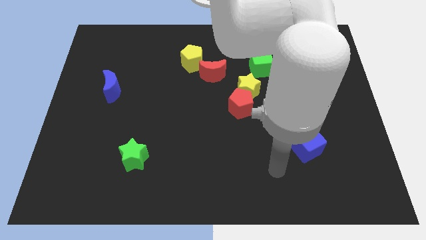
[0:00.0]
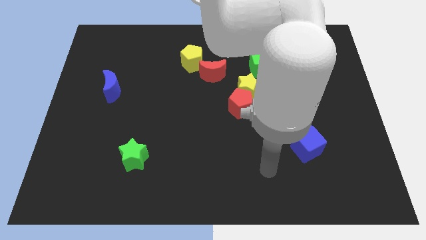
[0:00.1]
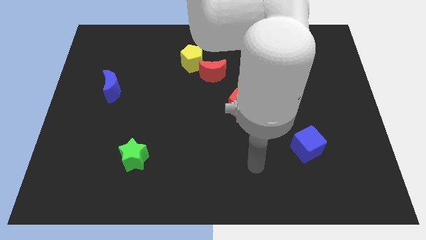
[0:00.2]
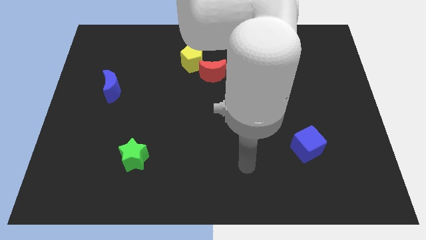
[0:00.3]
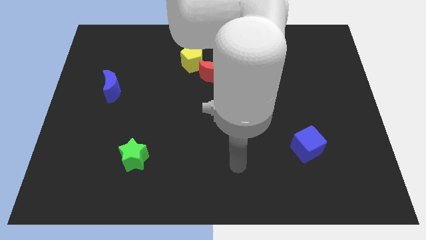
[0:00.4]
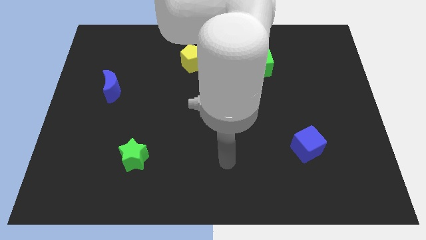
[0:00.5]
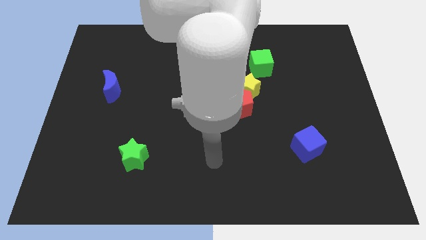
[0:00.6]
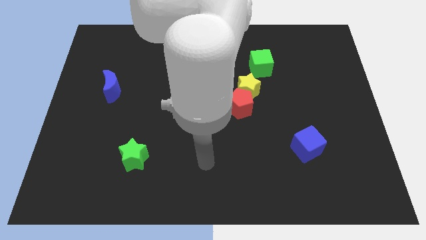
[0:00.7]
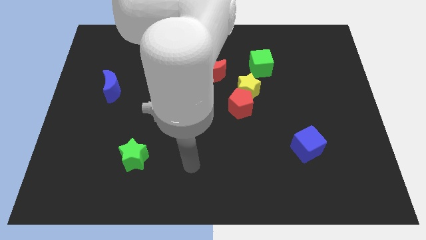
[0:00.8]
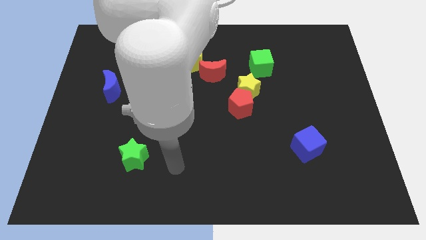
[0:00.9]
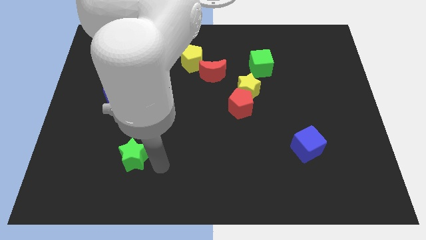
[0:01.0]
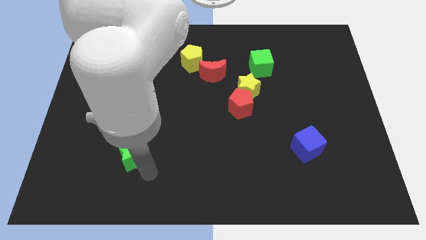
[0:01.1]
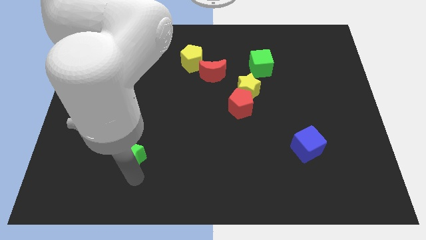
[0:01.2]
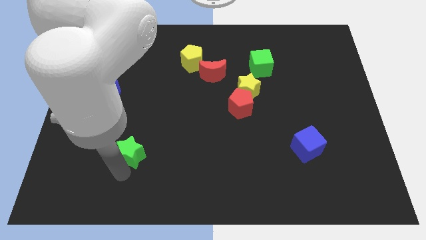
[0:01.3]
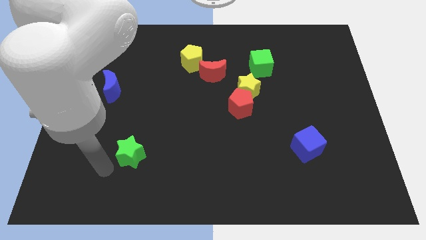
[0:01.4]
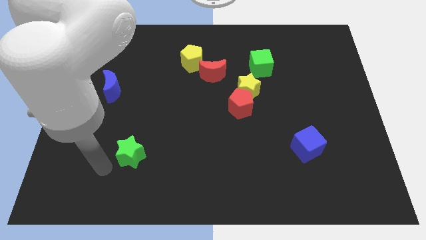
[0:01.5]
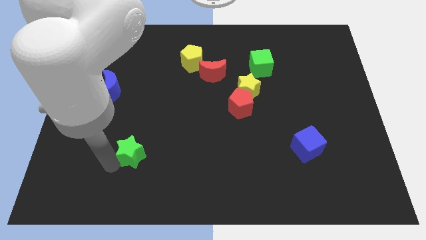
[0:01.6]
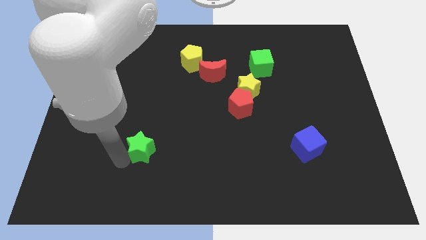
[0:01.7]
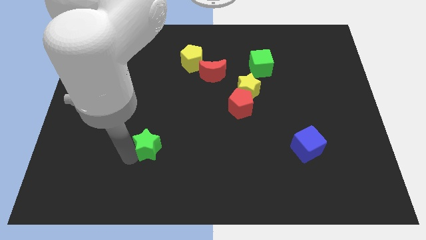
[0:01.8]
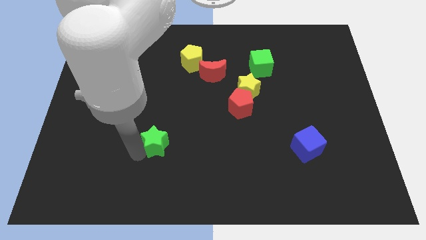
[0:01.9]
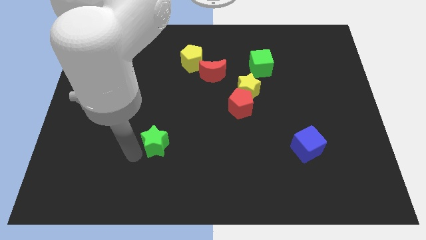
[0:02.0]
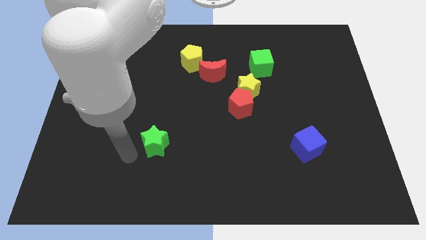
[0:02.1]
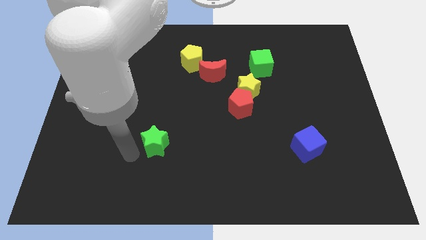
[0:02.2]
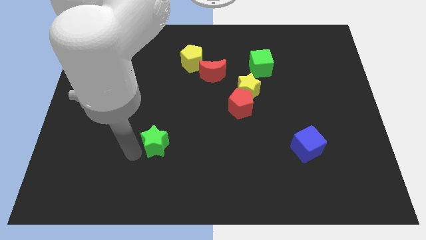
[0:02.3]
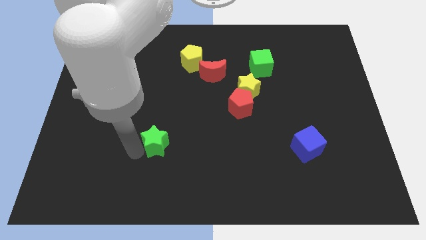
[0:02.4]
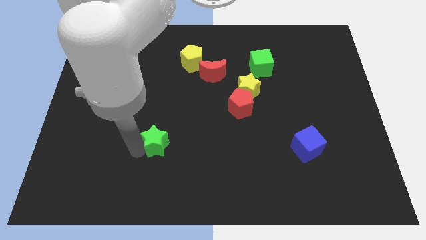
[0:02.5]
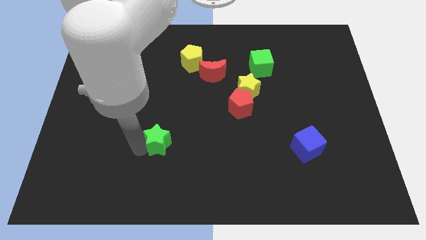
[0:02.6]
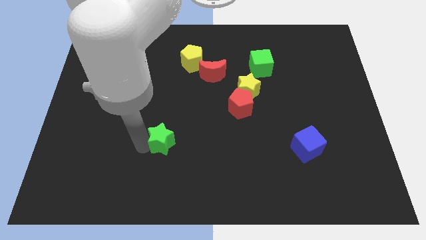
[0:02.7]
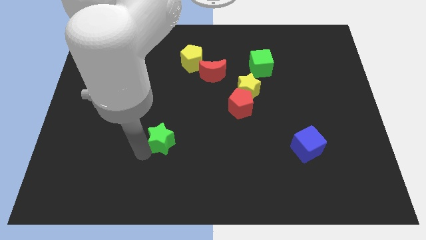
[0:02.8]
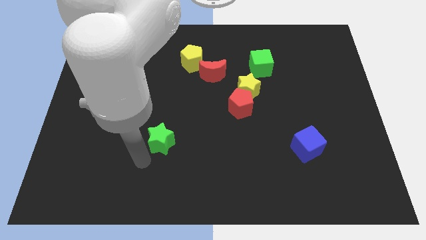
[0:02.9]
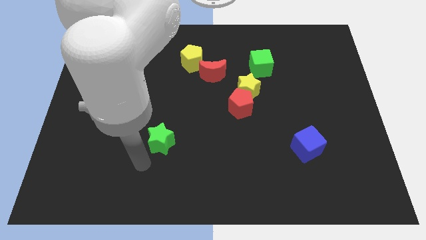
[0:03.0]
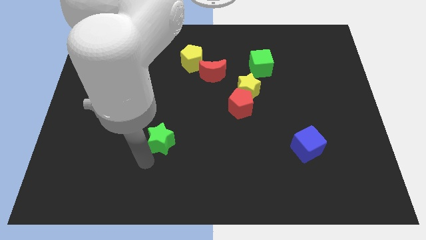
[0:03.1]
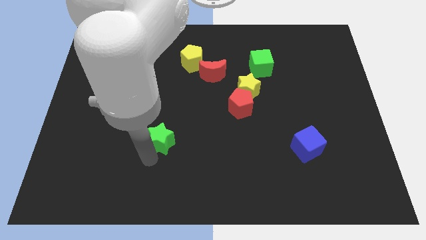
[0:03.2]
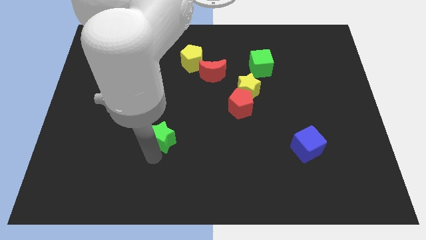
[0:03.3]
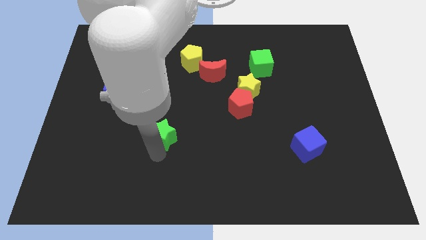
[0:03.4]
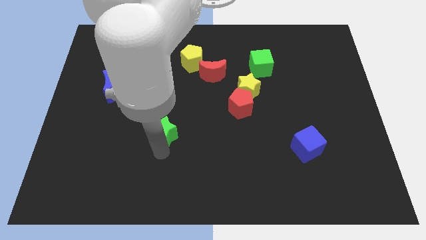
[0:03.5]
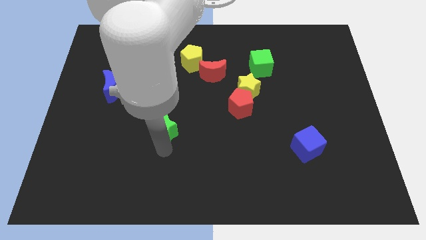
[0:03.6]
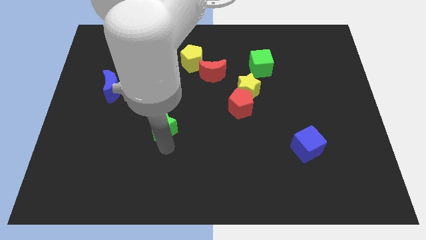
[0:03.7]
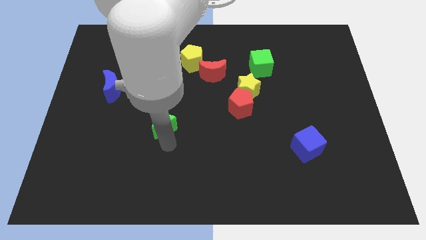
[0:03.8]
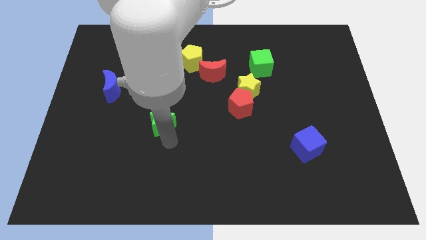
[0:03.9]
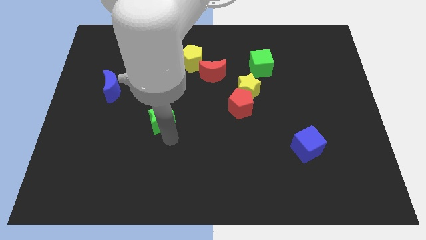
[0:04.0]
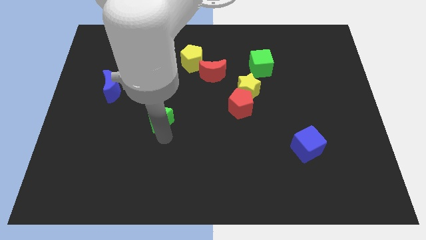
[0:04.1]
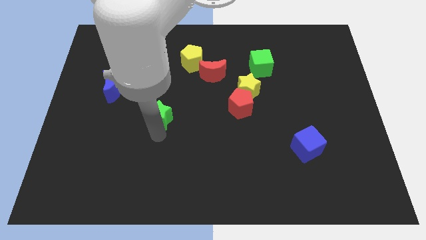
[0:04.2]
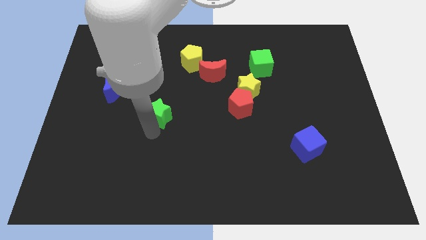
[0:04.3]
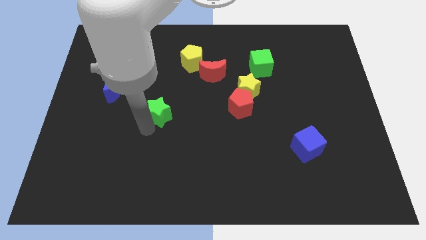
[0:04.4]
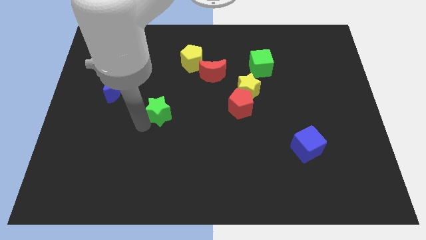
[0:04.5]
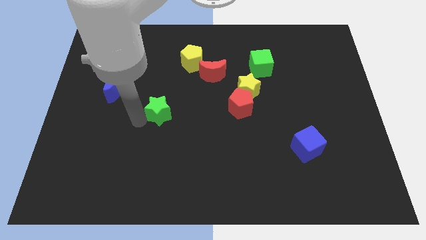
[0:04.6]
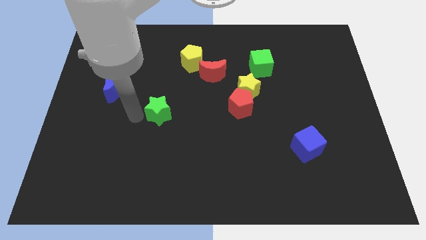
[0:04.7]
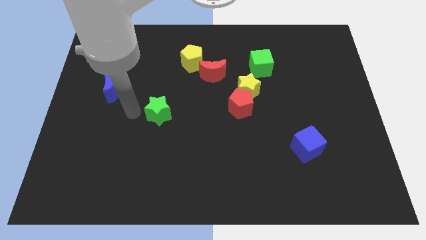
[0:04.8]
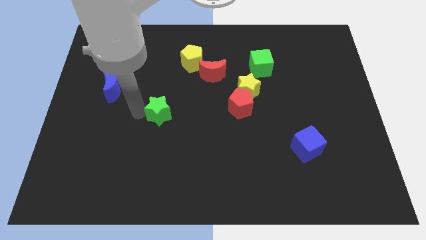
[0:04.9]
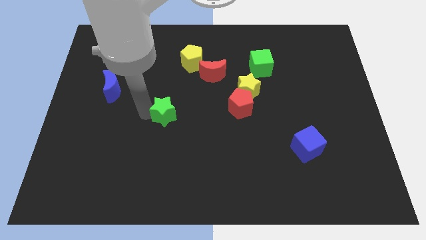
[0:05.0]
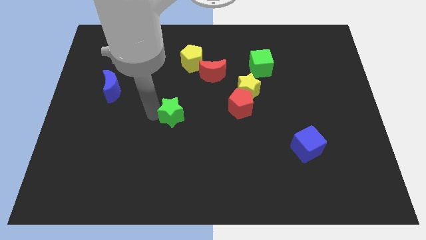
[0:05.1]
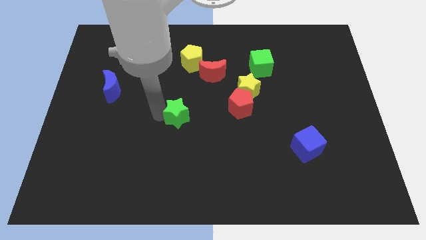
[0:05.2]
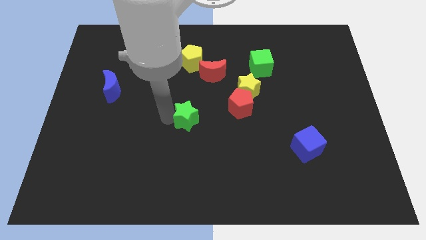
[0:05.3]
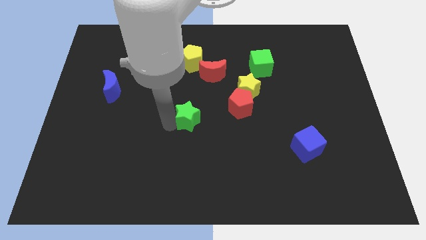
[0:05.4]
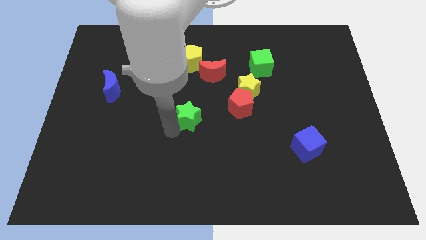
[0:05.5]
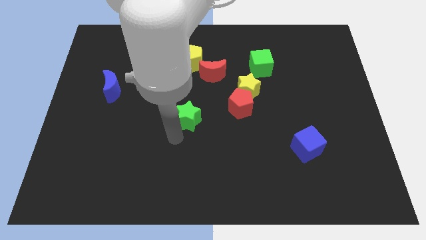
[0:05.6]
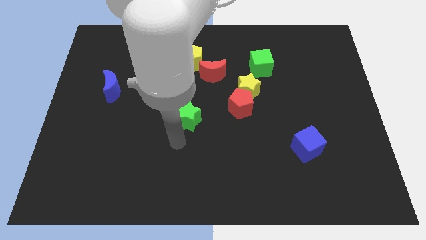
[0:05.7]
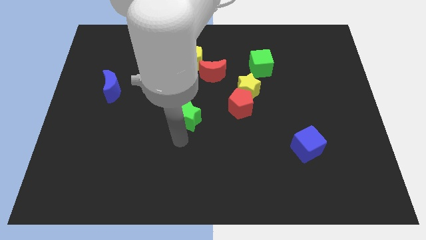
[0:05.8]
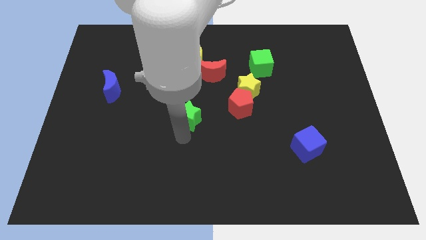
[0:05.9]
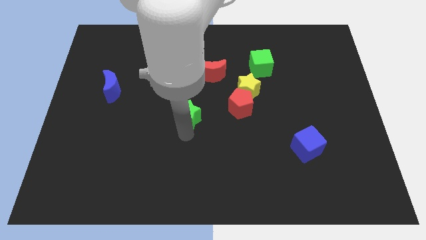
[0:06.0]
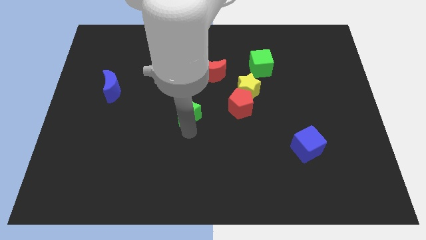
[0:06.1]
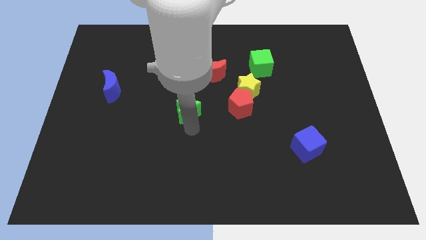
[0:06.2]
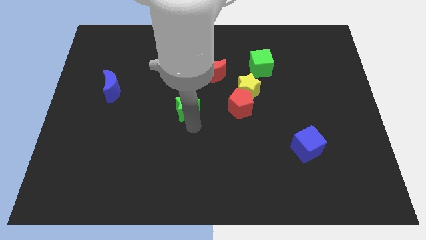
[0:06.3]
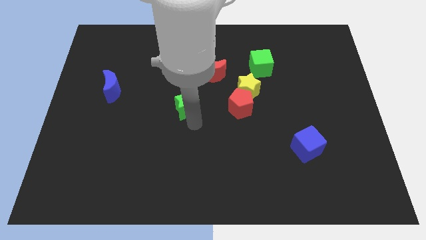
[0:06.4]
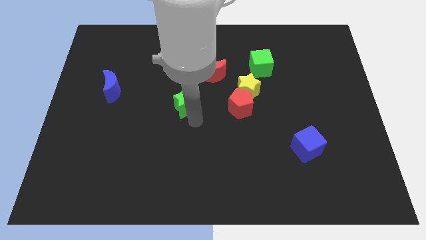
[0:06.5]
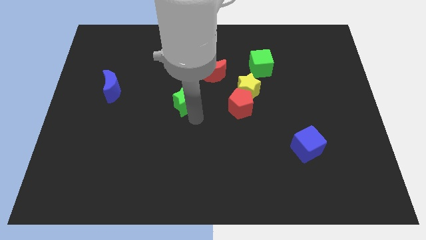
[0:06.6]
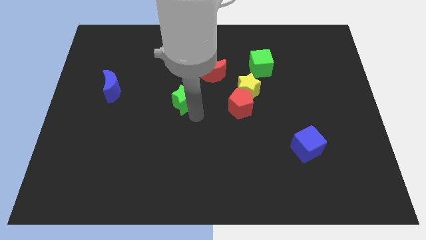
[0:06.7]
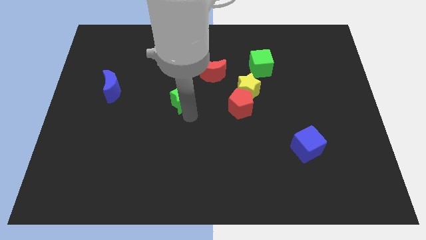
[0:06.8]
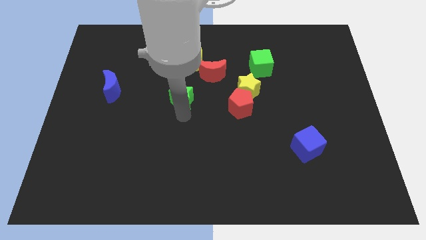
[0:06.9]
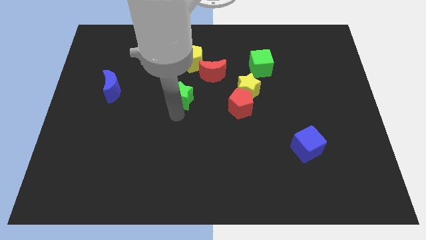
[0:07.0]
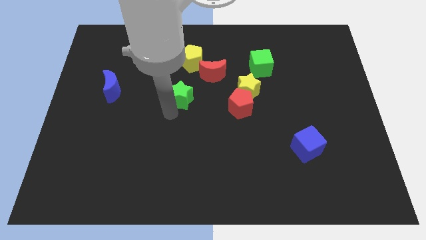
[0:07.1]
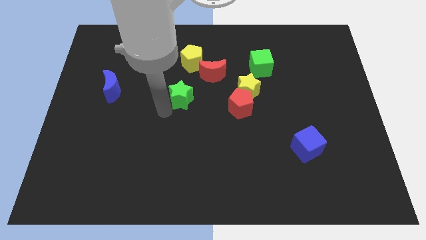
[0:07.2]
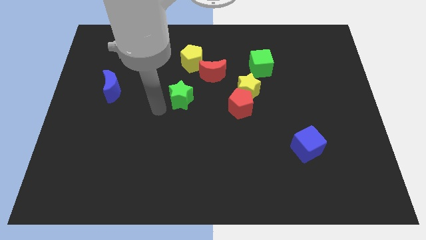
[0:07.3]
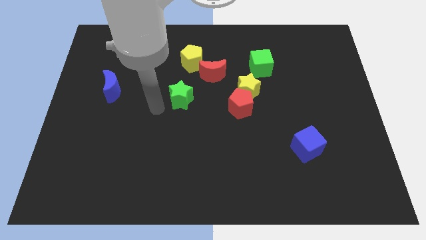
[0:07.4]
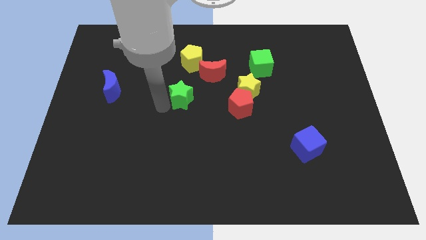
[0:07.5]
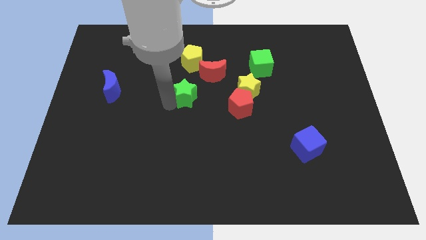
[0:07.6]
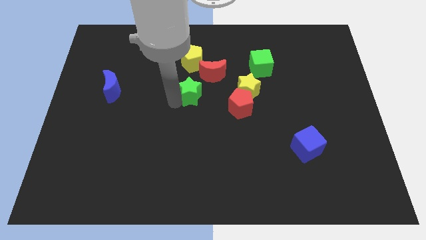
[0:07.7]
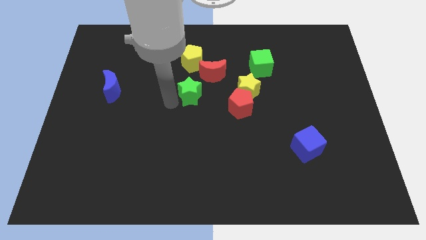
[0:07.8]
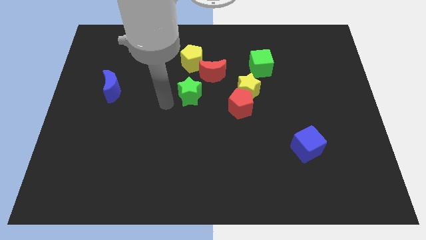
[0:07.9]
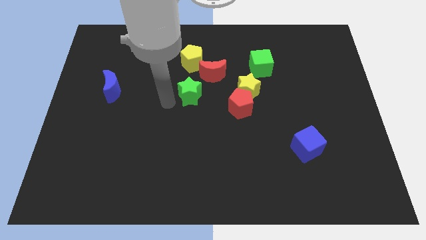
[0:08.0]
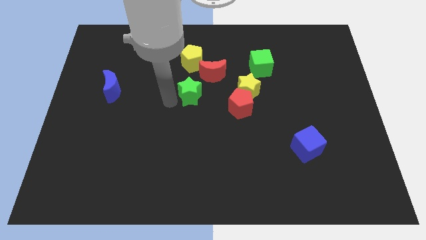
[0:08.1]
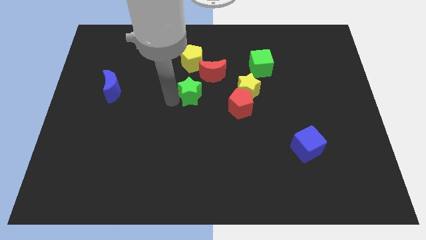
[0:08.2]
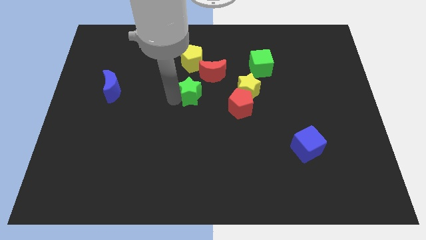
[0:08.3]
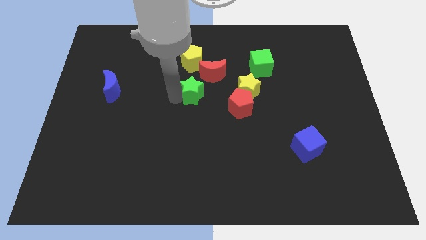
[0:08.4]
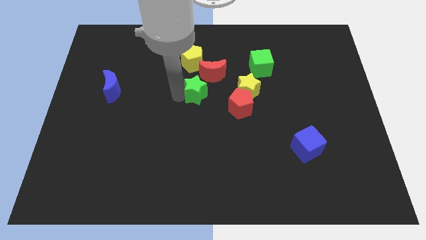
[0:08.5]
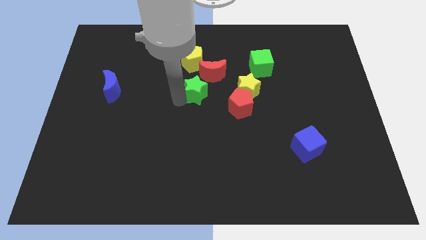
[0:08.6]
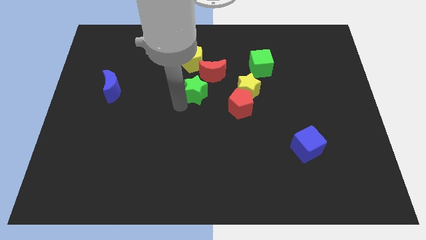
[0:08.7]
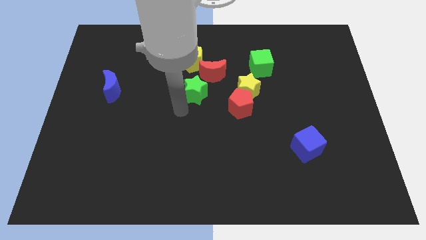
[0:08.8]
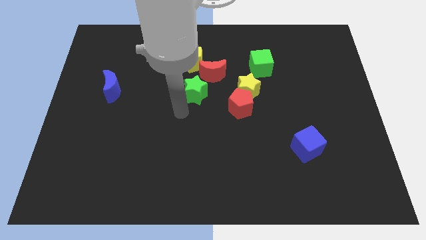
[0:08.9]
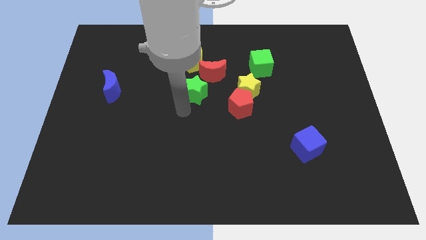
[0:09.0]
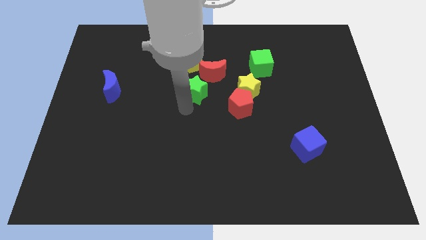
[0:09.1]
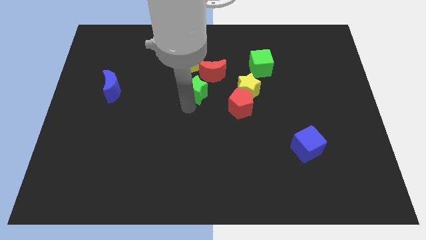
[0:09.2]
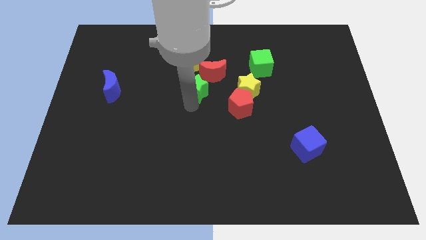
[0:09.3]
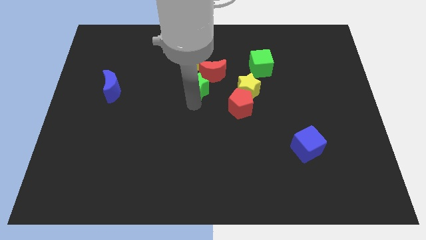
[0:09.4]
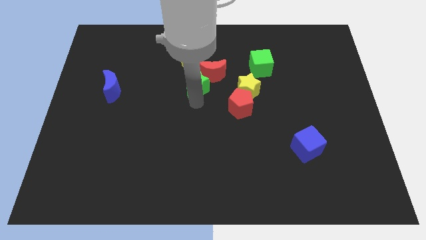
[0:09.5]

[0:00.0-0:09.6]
move the green star towards the red moon
